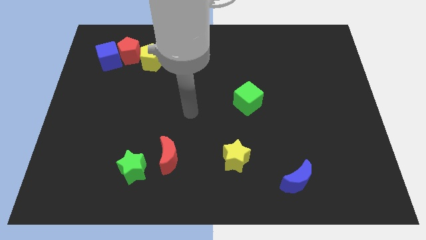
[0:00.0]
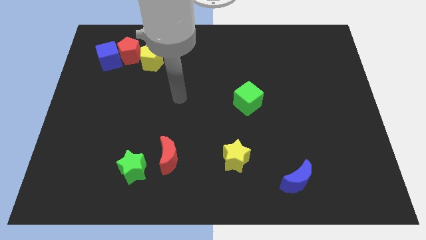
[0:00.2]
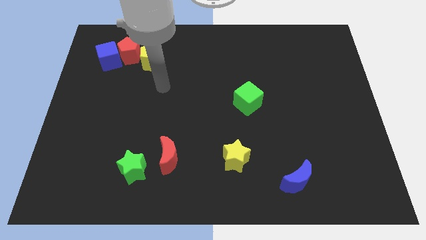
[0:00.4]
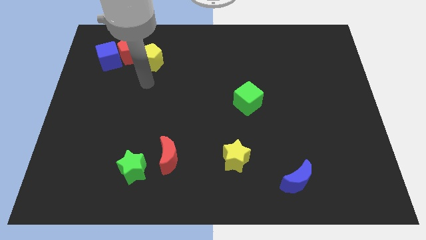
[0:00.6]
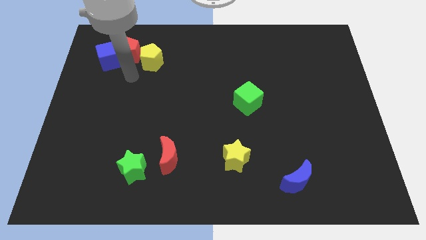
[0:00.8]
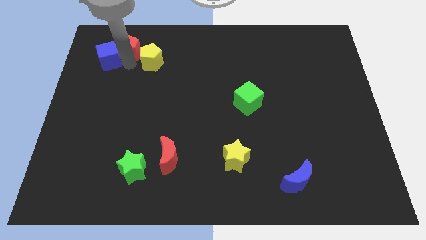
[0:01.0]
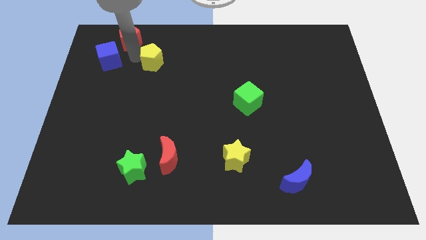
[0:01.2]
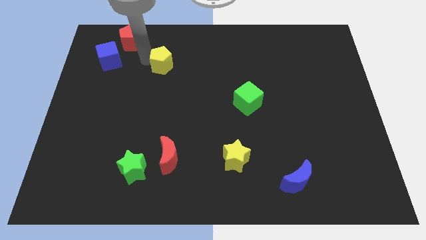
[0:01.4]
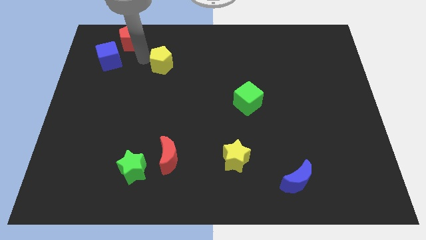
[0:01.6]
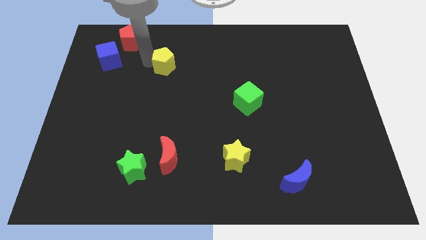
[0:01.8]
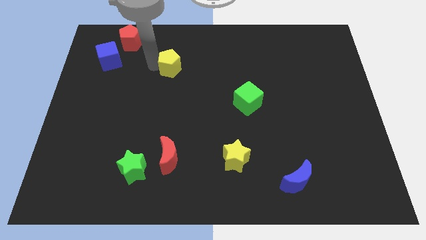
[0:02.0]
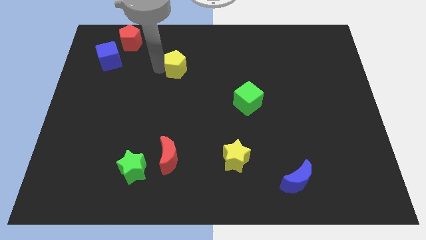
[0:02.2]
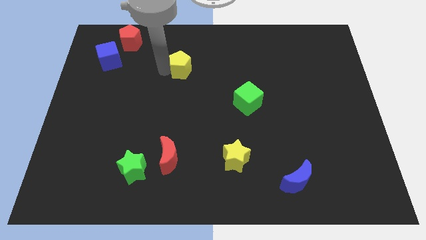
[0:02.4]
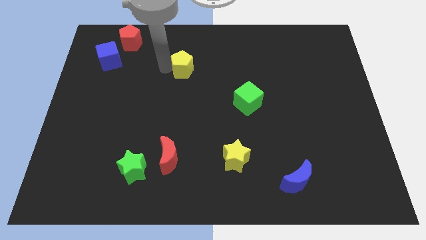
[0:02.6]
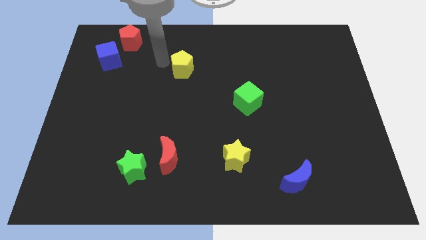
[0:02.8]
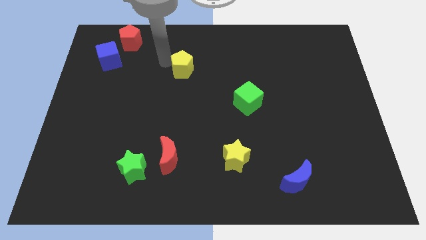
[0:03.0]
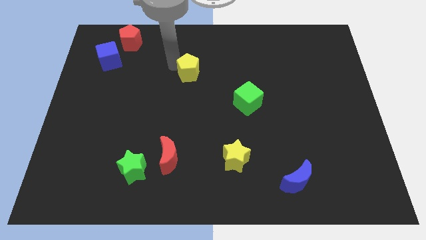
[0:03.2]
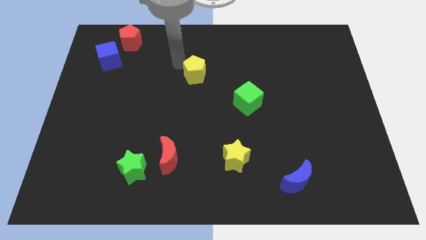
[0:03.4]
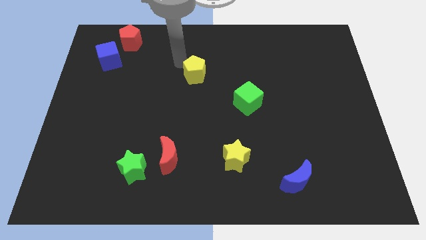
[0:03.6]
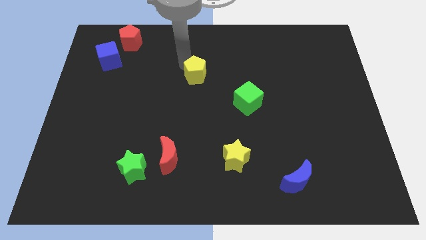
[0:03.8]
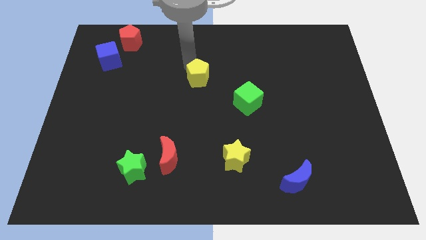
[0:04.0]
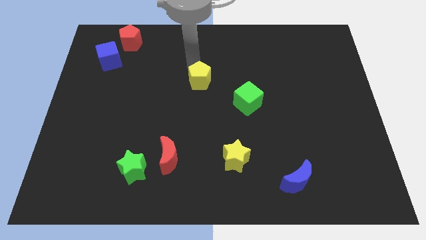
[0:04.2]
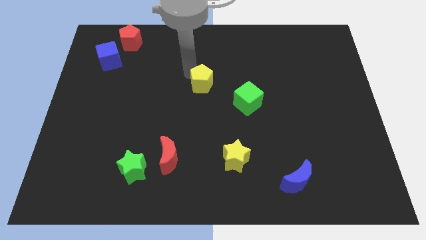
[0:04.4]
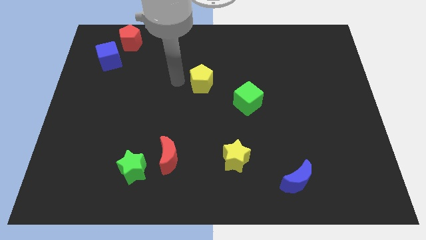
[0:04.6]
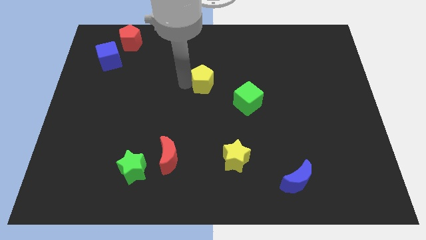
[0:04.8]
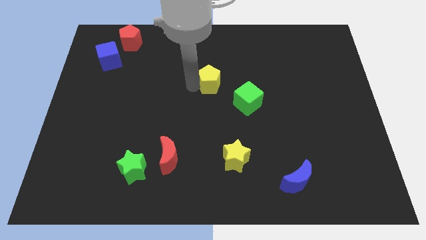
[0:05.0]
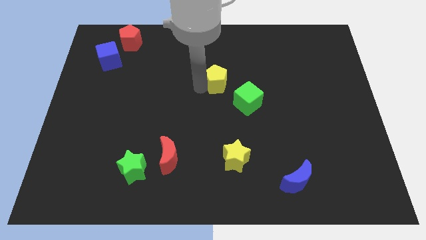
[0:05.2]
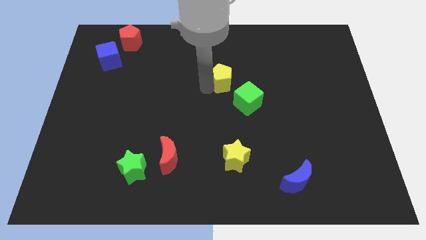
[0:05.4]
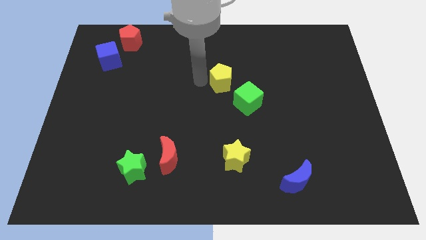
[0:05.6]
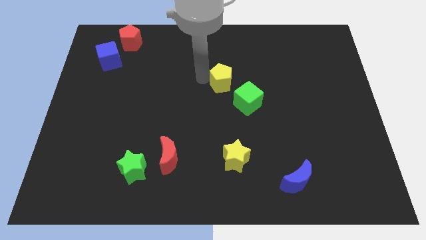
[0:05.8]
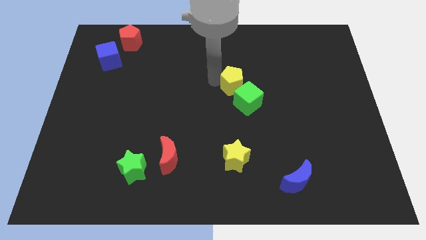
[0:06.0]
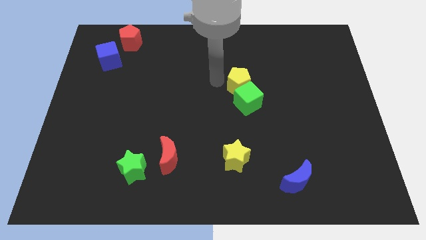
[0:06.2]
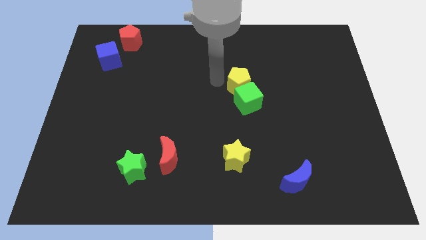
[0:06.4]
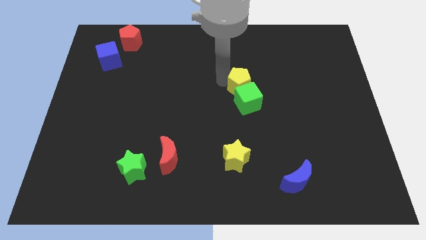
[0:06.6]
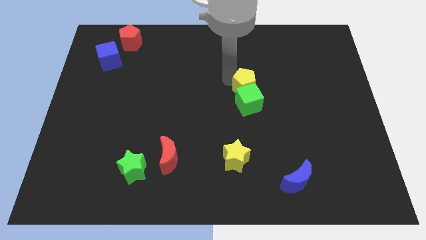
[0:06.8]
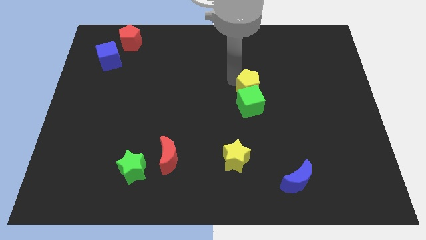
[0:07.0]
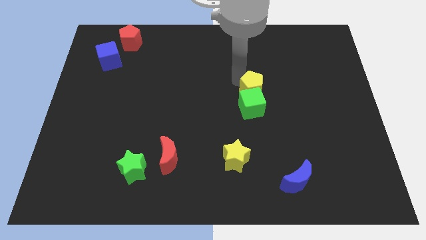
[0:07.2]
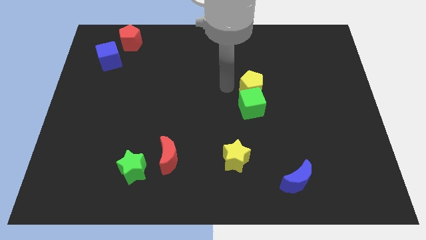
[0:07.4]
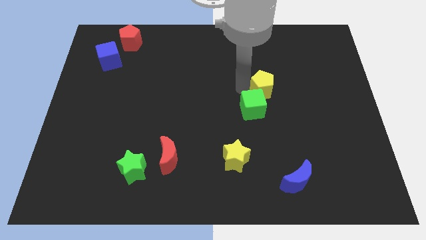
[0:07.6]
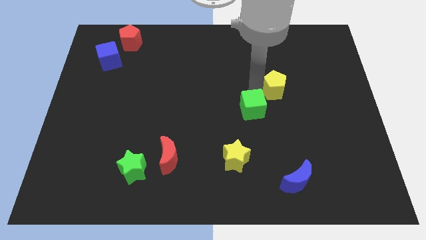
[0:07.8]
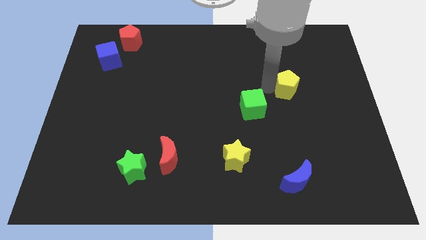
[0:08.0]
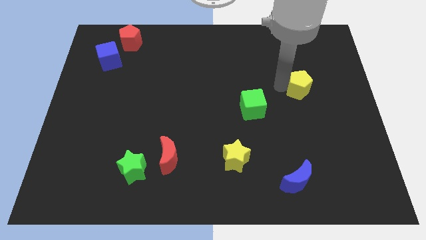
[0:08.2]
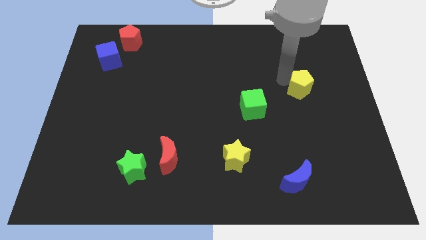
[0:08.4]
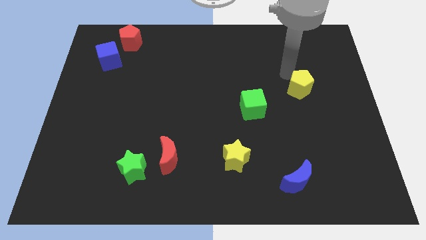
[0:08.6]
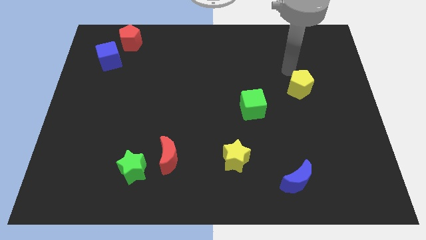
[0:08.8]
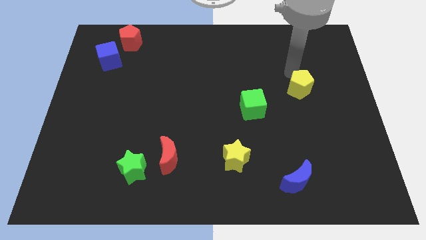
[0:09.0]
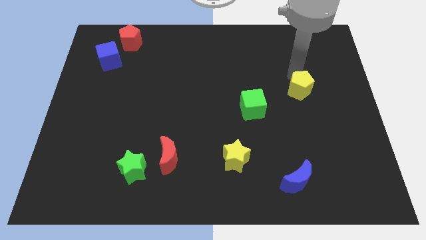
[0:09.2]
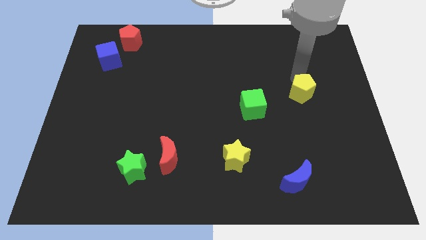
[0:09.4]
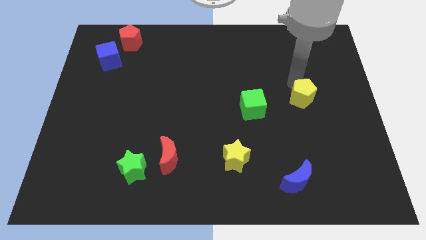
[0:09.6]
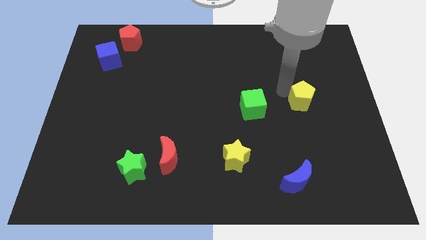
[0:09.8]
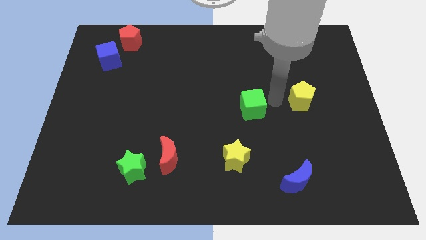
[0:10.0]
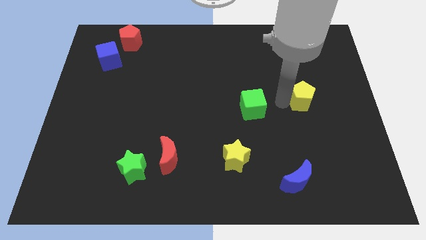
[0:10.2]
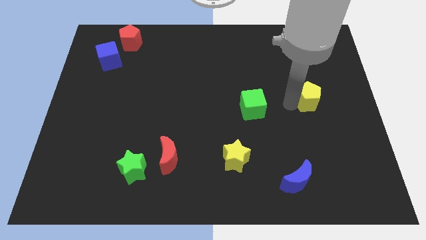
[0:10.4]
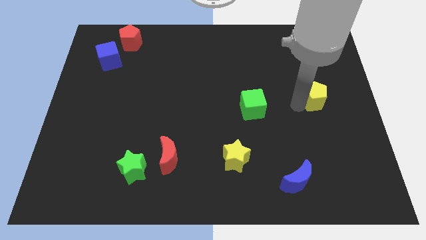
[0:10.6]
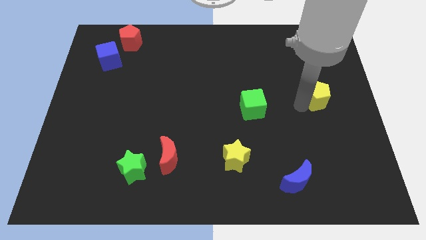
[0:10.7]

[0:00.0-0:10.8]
put the yellow pentagon to the center right

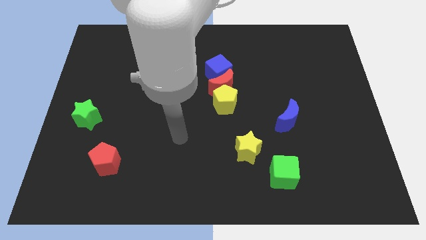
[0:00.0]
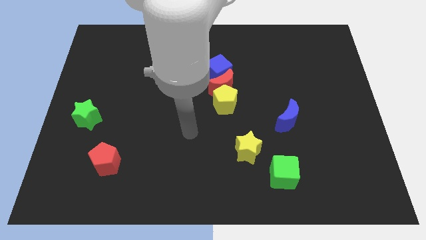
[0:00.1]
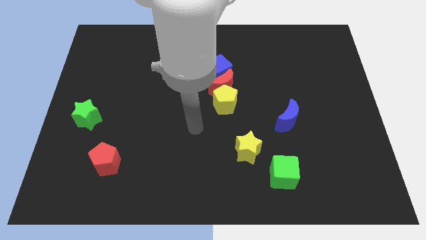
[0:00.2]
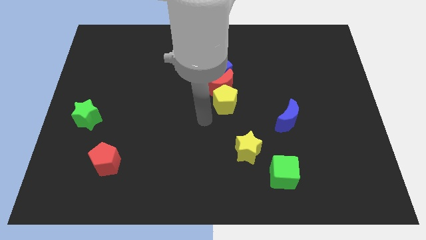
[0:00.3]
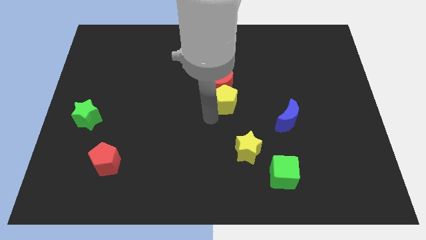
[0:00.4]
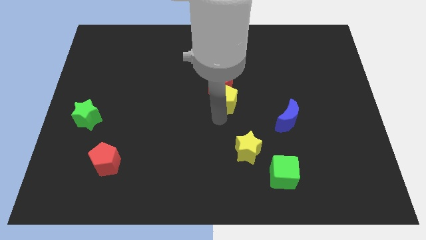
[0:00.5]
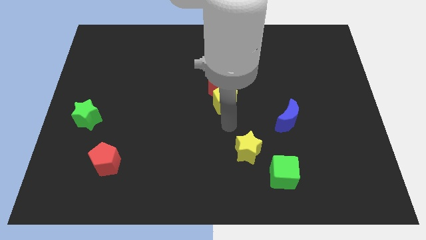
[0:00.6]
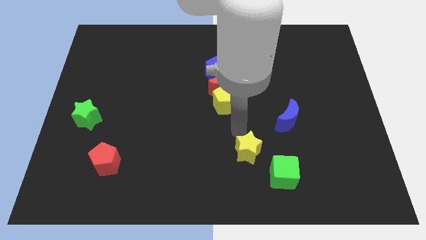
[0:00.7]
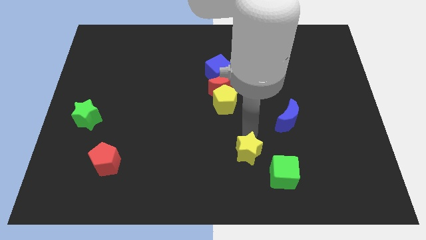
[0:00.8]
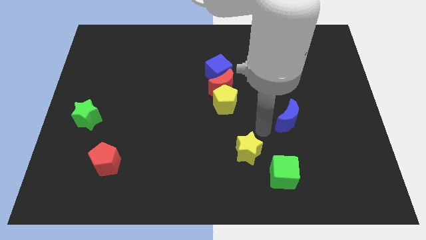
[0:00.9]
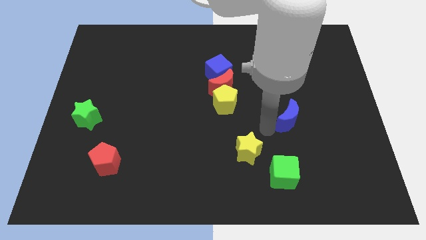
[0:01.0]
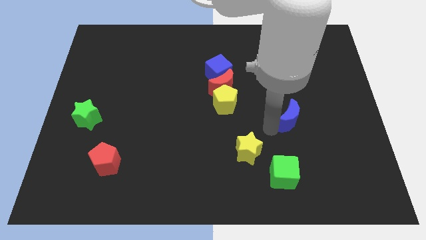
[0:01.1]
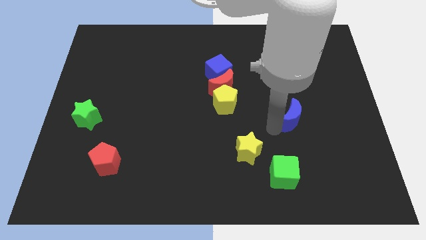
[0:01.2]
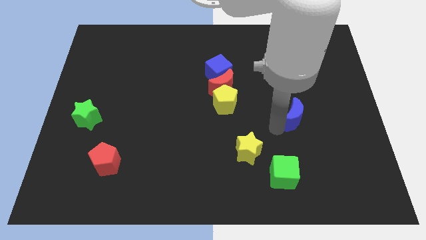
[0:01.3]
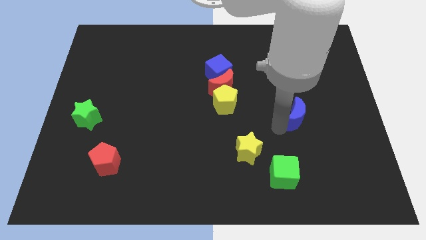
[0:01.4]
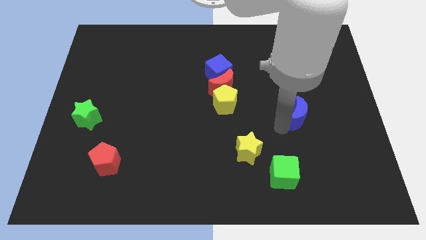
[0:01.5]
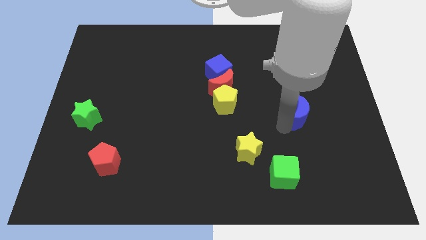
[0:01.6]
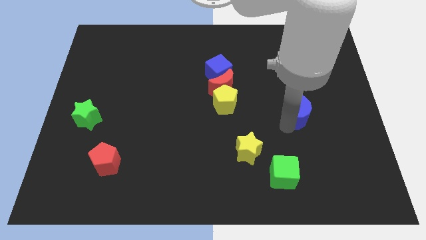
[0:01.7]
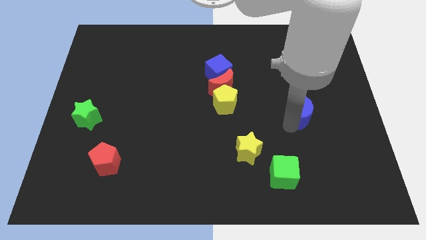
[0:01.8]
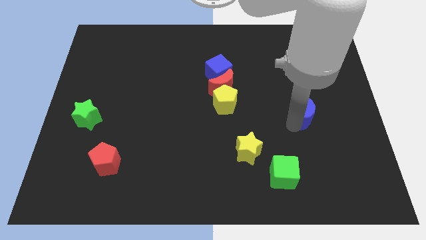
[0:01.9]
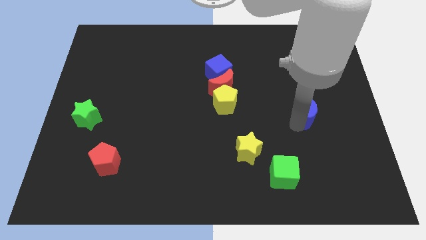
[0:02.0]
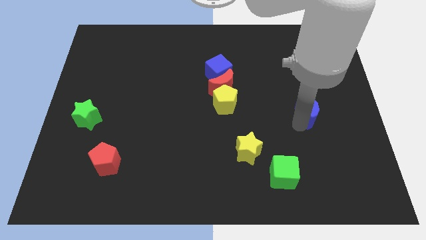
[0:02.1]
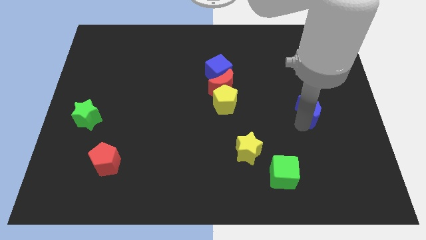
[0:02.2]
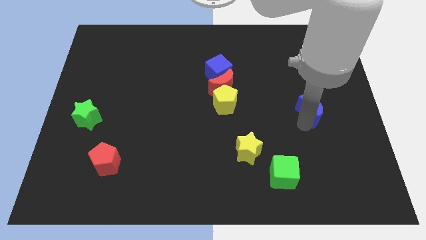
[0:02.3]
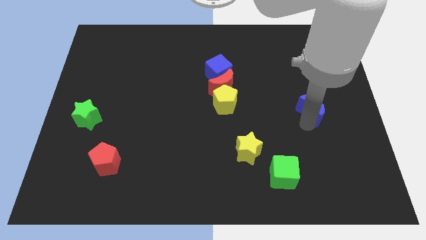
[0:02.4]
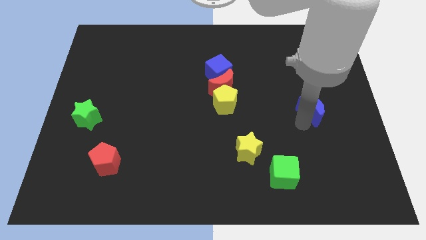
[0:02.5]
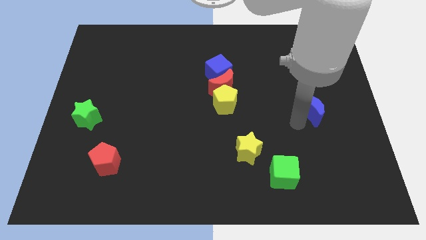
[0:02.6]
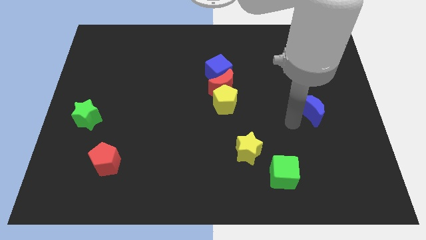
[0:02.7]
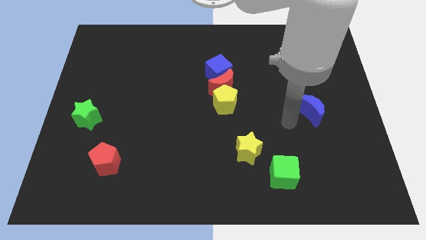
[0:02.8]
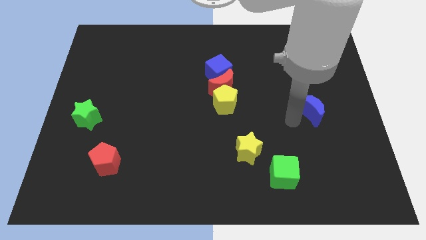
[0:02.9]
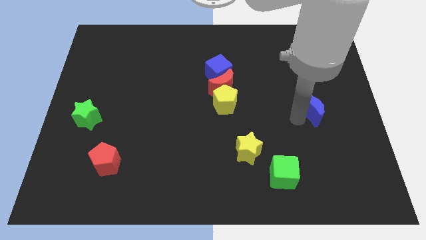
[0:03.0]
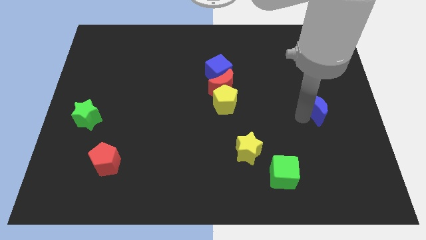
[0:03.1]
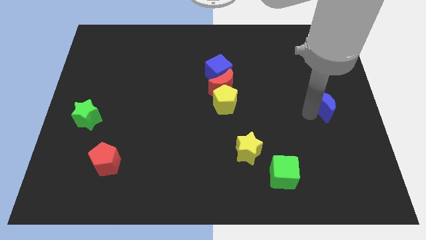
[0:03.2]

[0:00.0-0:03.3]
slide the blue moon to the right side
